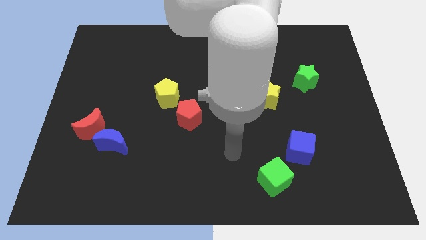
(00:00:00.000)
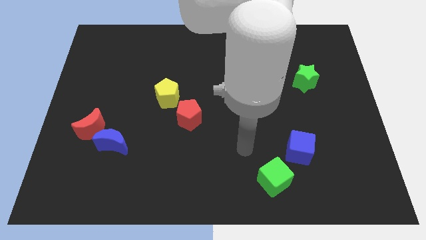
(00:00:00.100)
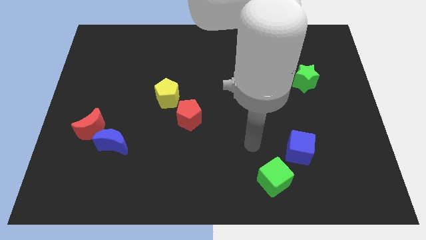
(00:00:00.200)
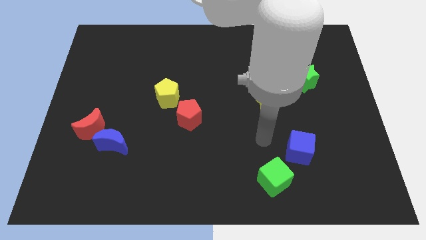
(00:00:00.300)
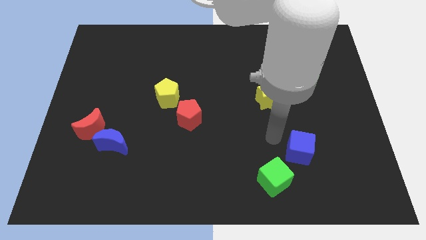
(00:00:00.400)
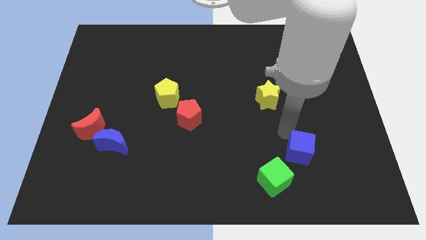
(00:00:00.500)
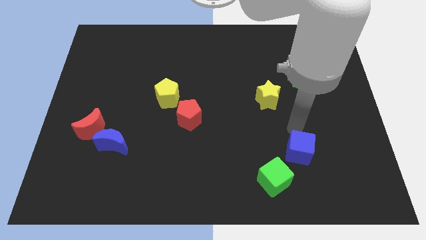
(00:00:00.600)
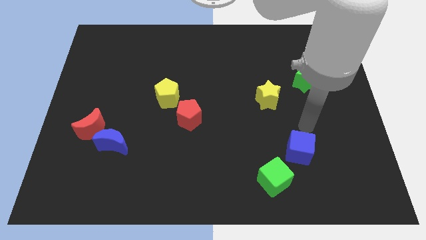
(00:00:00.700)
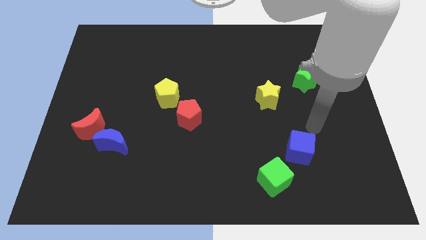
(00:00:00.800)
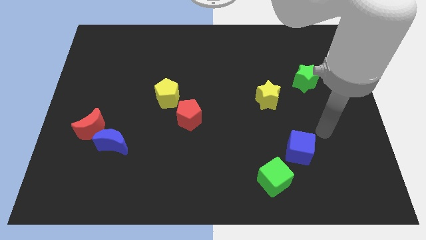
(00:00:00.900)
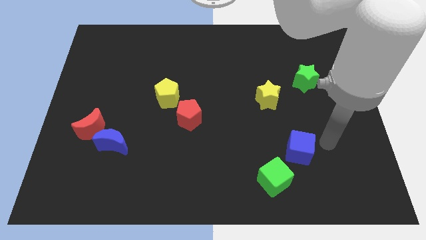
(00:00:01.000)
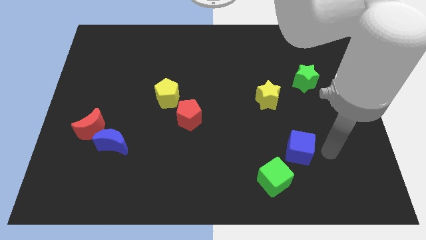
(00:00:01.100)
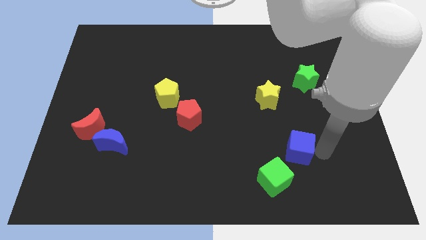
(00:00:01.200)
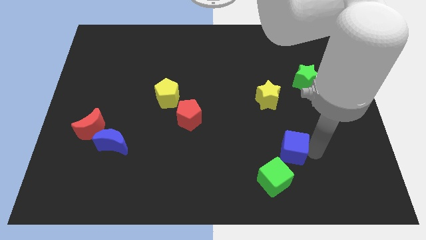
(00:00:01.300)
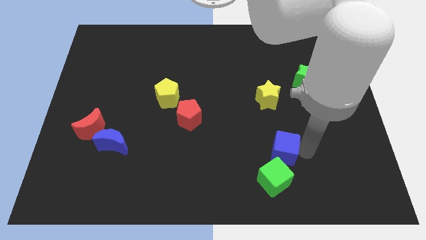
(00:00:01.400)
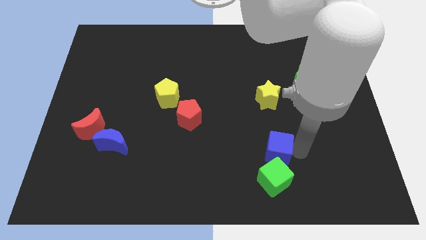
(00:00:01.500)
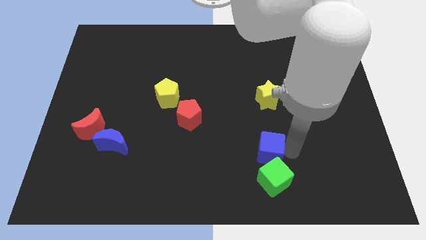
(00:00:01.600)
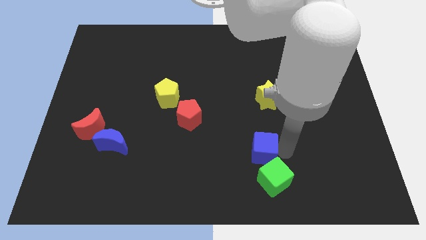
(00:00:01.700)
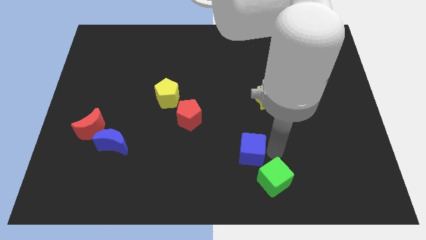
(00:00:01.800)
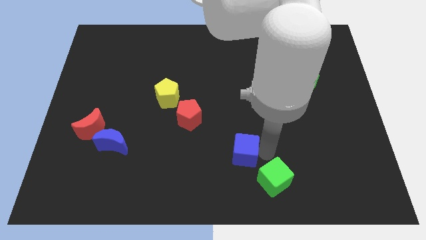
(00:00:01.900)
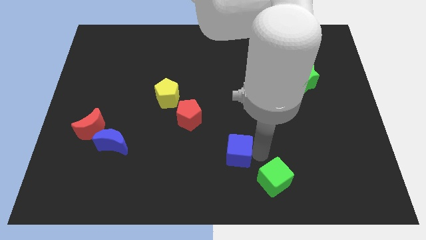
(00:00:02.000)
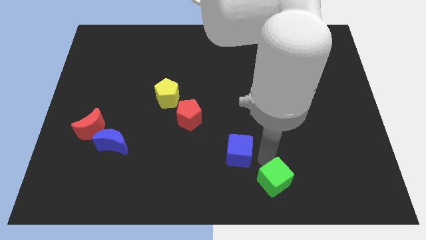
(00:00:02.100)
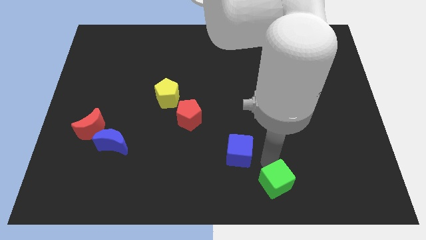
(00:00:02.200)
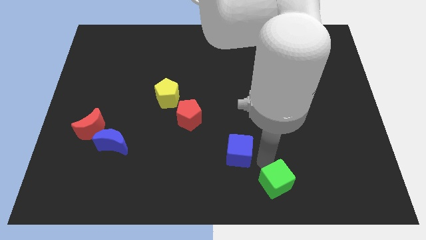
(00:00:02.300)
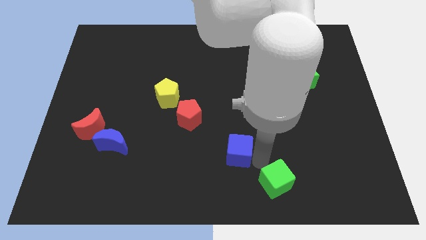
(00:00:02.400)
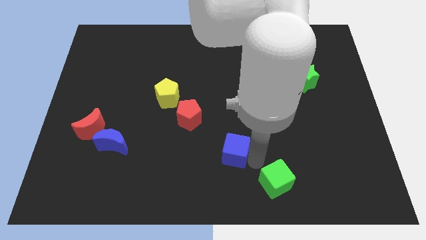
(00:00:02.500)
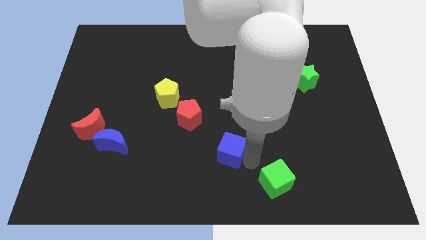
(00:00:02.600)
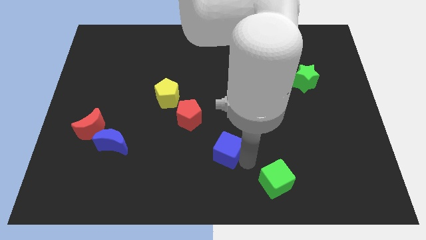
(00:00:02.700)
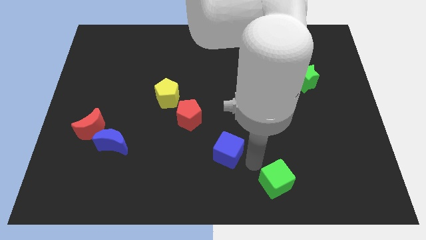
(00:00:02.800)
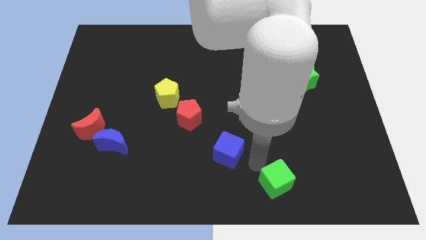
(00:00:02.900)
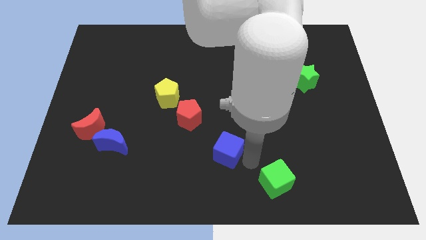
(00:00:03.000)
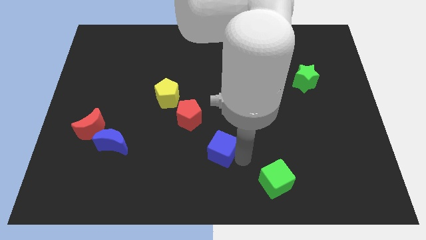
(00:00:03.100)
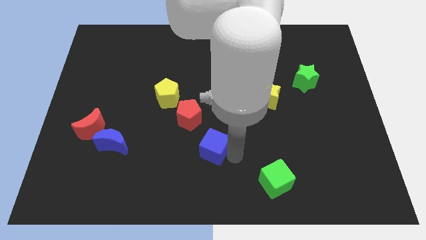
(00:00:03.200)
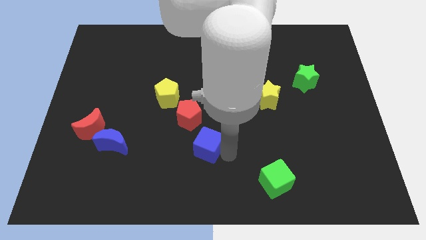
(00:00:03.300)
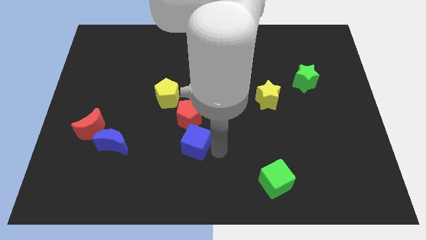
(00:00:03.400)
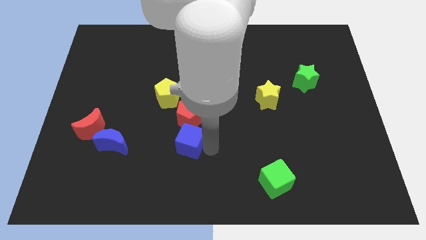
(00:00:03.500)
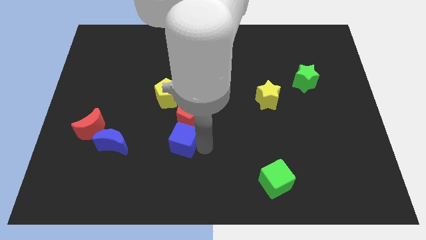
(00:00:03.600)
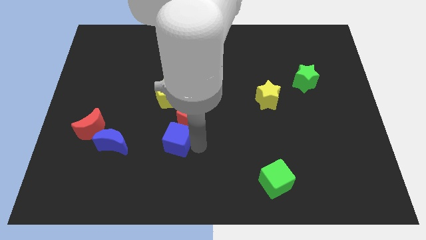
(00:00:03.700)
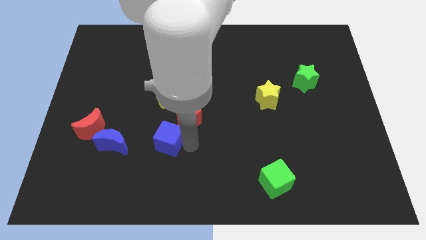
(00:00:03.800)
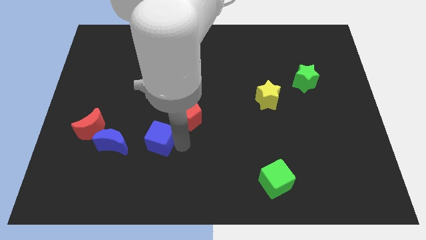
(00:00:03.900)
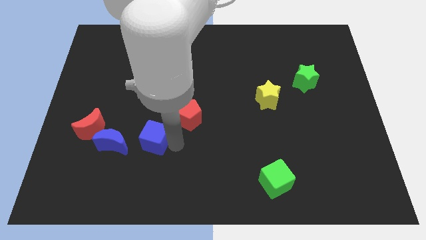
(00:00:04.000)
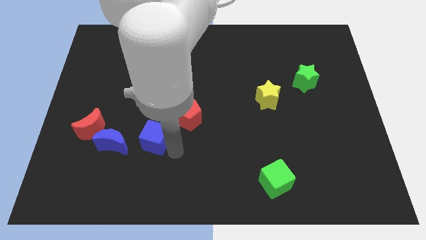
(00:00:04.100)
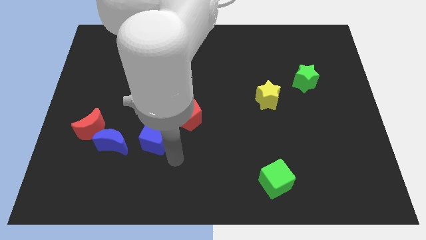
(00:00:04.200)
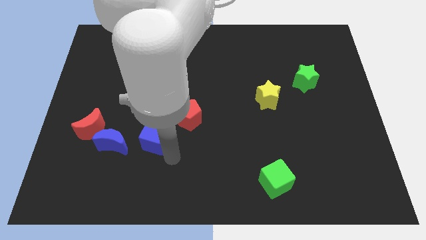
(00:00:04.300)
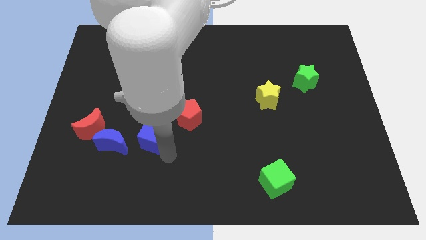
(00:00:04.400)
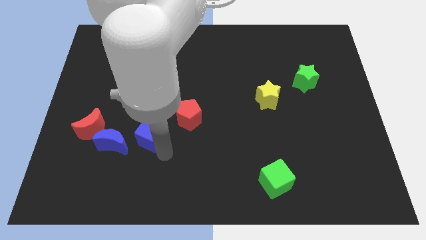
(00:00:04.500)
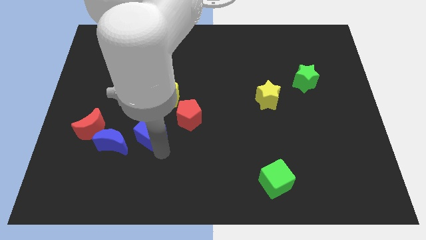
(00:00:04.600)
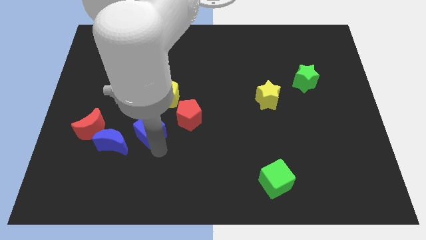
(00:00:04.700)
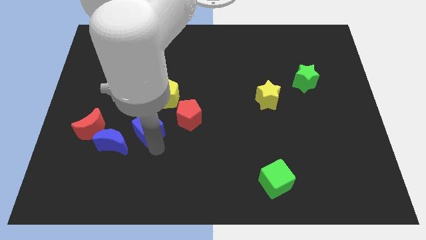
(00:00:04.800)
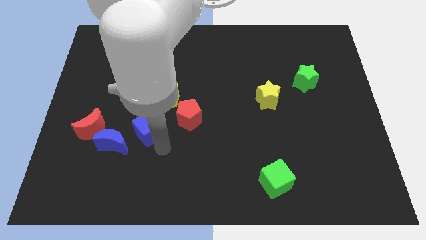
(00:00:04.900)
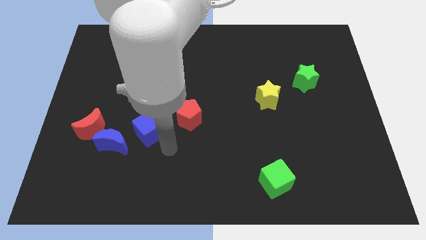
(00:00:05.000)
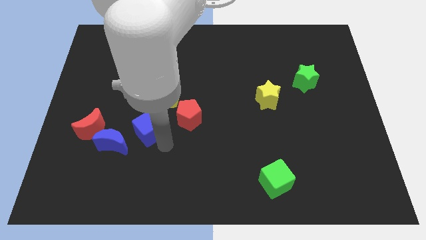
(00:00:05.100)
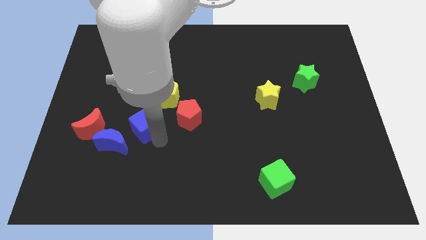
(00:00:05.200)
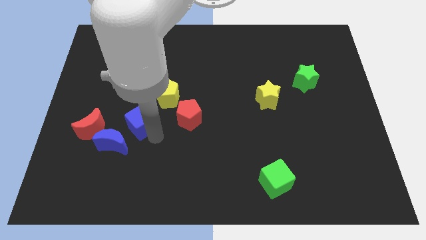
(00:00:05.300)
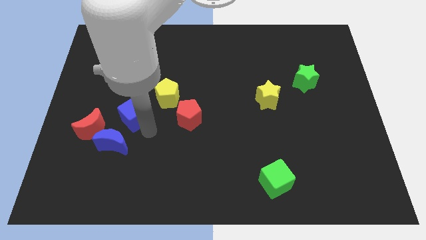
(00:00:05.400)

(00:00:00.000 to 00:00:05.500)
move the blue cube above the blue moon

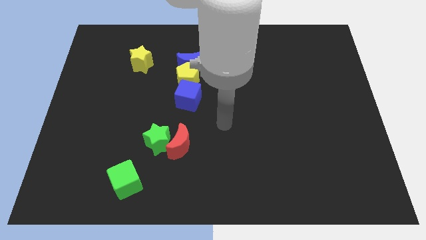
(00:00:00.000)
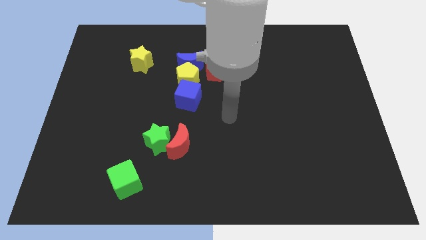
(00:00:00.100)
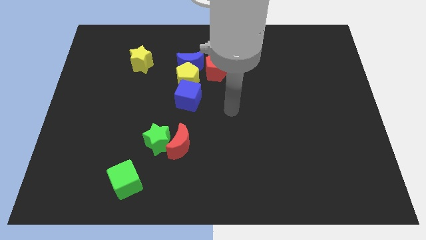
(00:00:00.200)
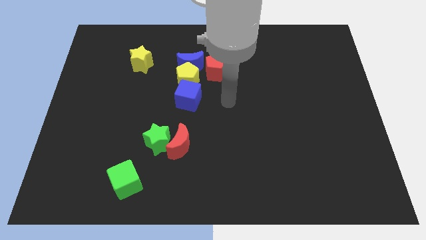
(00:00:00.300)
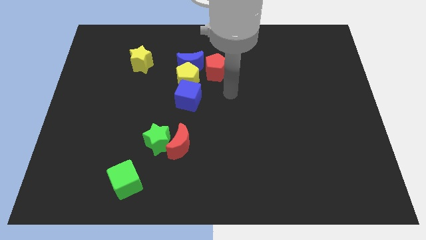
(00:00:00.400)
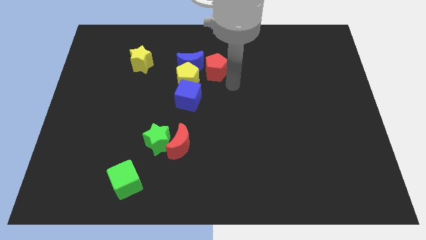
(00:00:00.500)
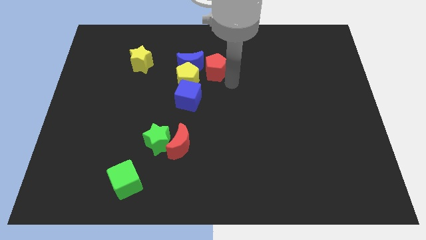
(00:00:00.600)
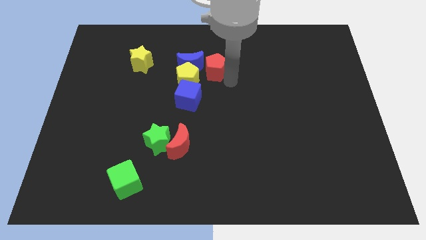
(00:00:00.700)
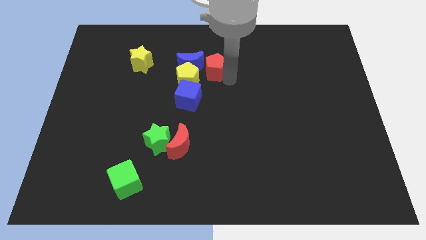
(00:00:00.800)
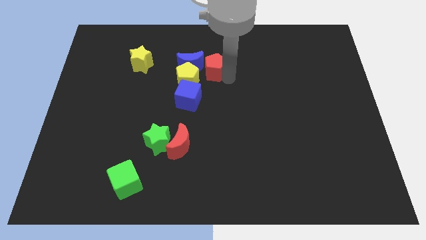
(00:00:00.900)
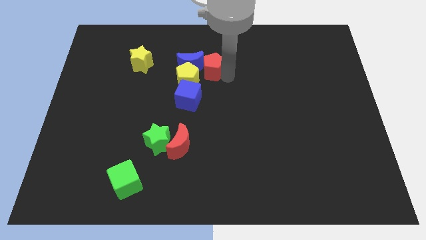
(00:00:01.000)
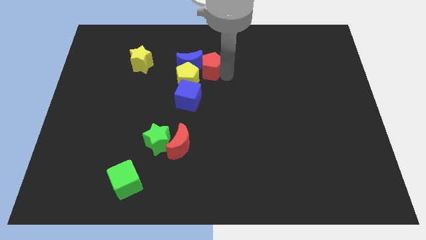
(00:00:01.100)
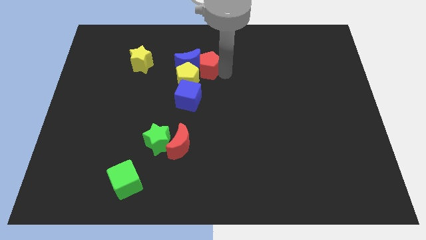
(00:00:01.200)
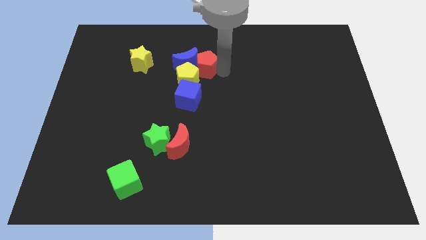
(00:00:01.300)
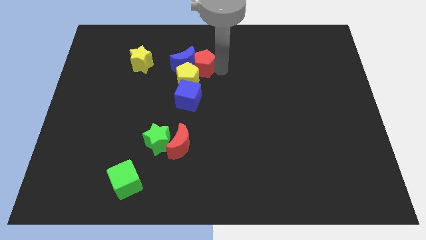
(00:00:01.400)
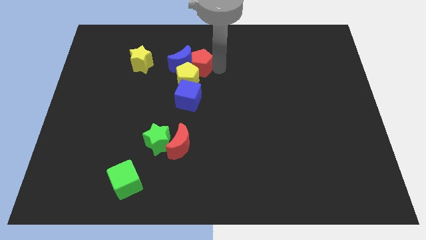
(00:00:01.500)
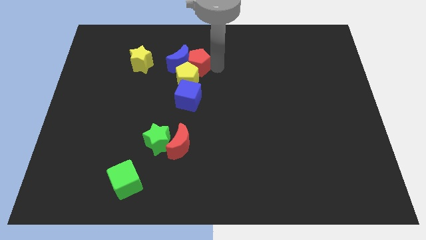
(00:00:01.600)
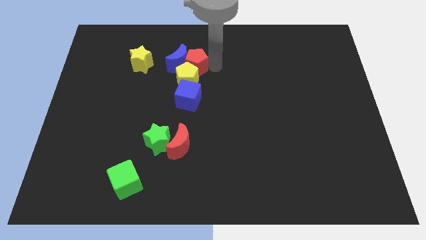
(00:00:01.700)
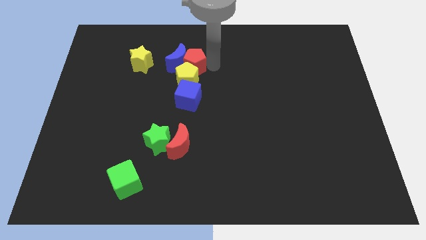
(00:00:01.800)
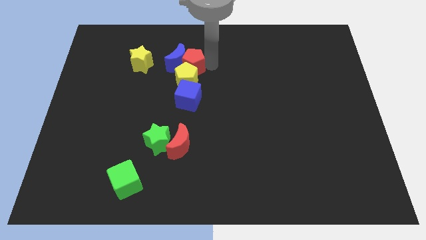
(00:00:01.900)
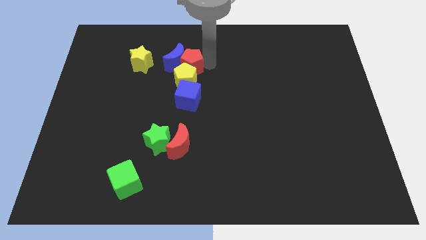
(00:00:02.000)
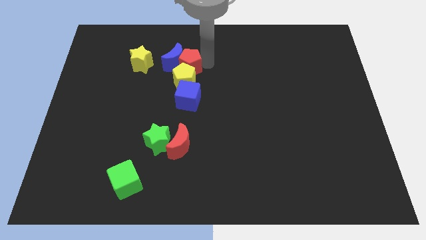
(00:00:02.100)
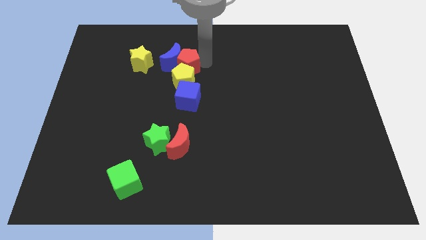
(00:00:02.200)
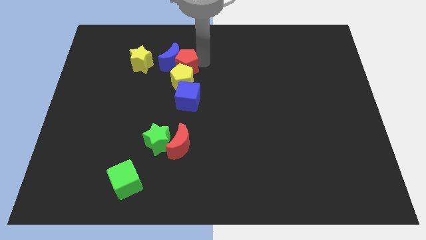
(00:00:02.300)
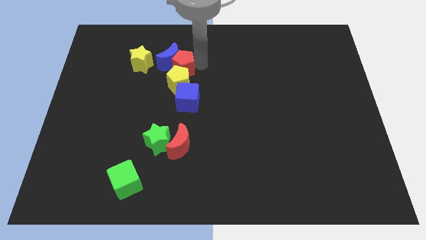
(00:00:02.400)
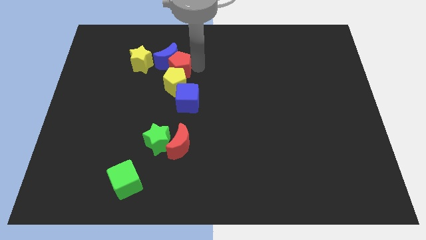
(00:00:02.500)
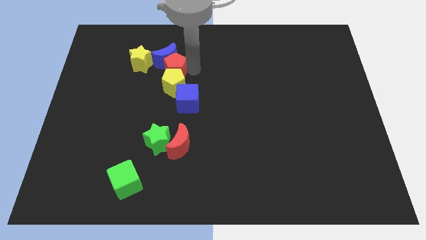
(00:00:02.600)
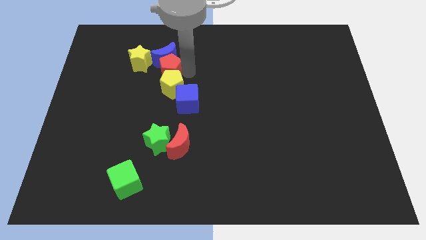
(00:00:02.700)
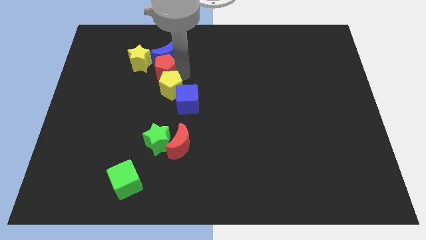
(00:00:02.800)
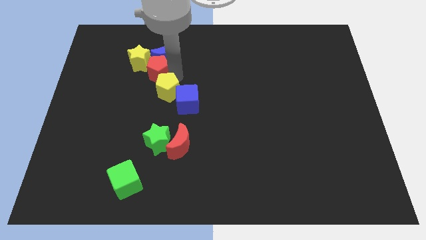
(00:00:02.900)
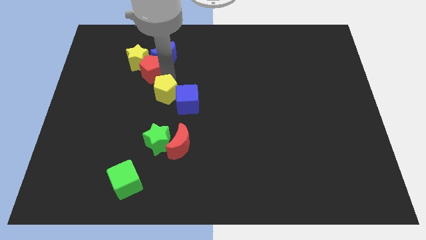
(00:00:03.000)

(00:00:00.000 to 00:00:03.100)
put the red pentagon below the yellow star
